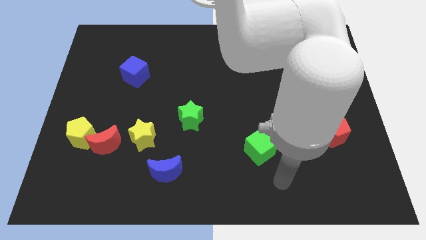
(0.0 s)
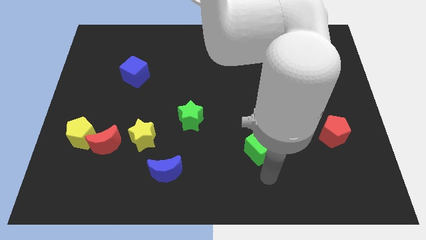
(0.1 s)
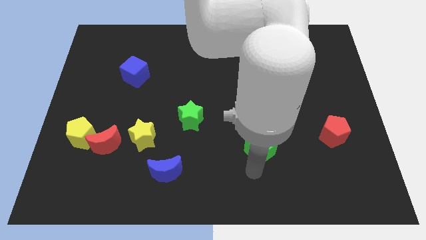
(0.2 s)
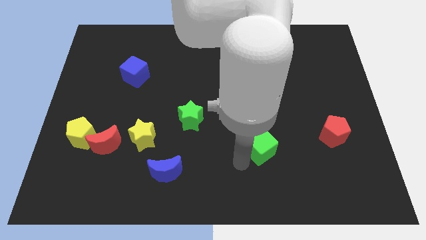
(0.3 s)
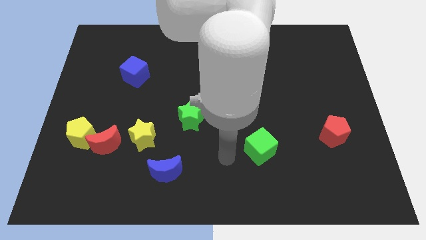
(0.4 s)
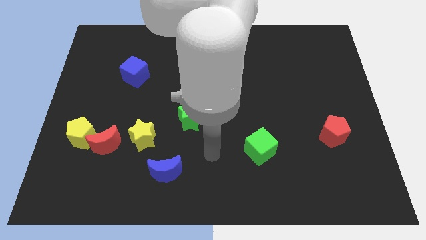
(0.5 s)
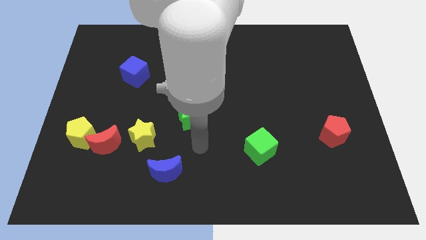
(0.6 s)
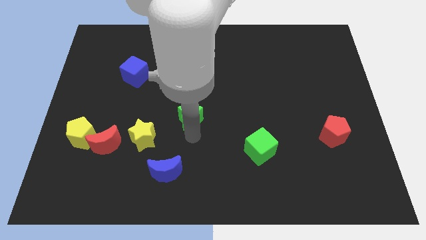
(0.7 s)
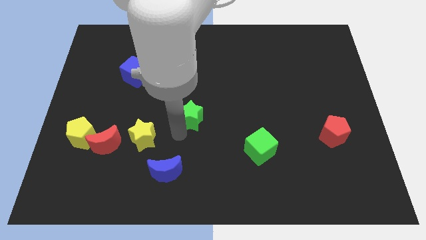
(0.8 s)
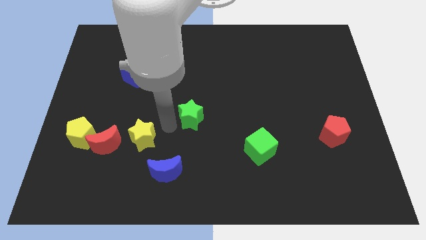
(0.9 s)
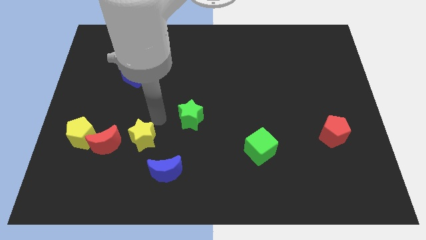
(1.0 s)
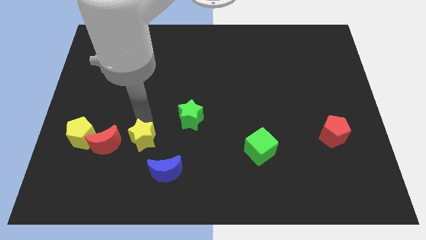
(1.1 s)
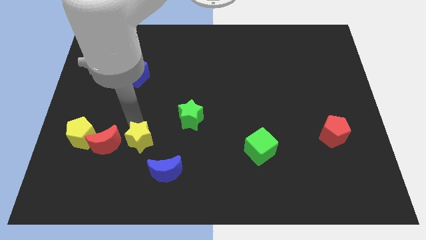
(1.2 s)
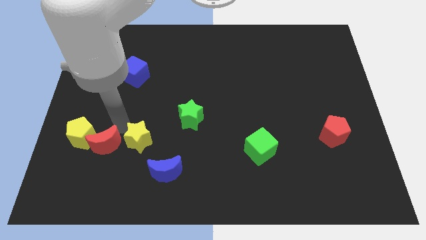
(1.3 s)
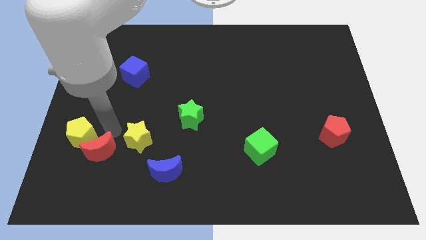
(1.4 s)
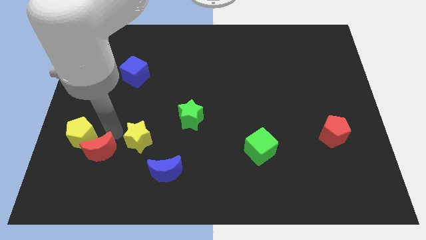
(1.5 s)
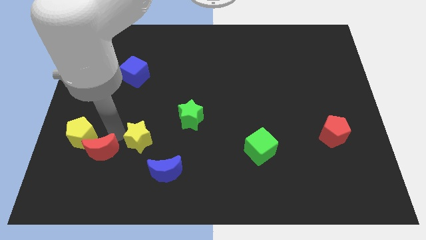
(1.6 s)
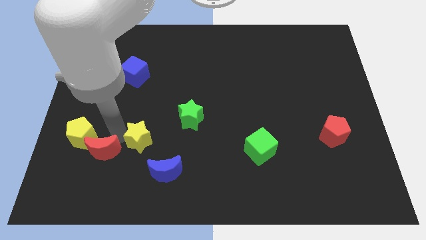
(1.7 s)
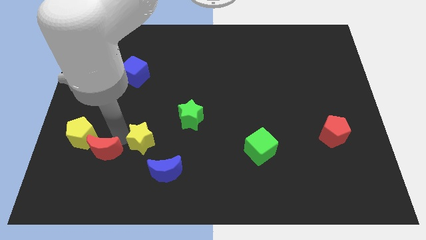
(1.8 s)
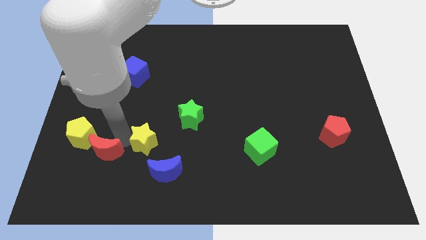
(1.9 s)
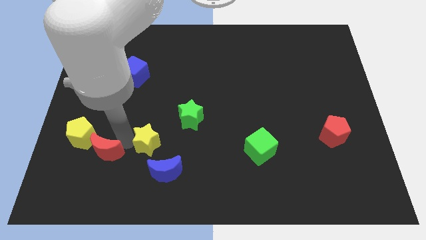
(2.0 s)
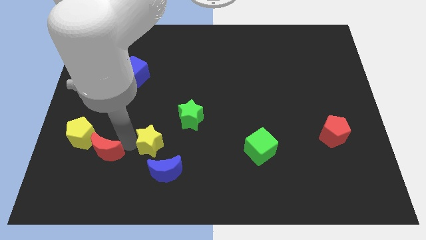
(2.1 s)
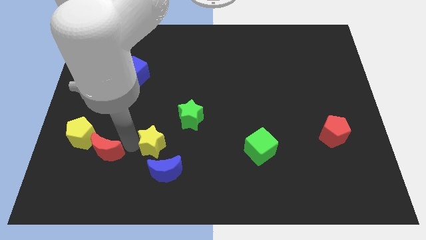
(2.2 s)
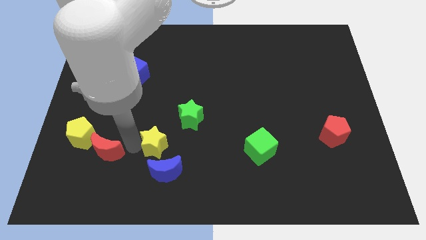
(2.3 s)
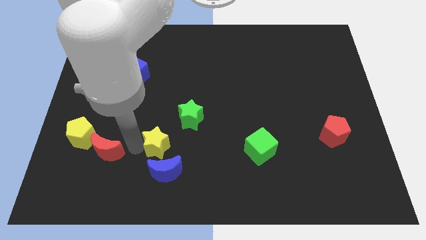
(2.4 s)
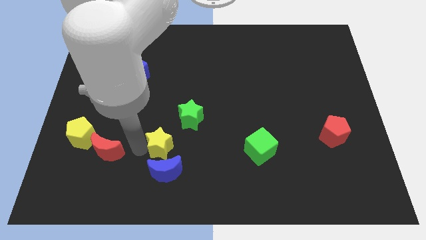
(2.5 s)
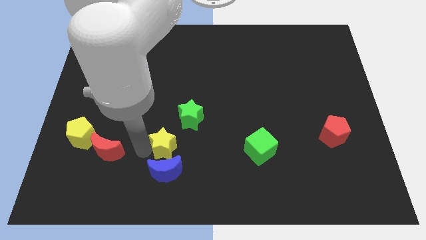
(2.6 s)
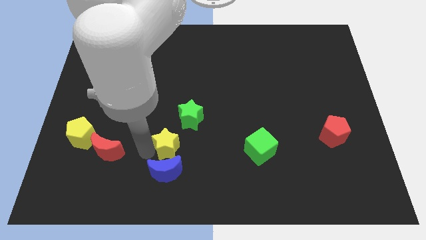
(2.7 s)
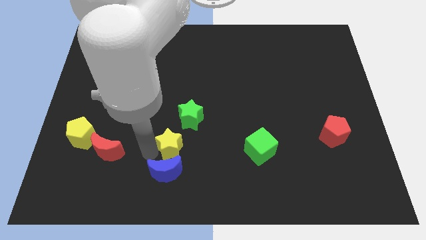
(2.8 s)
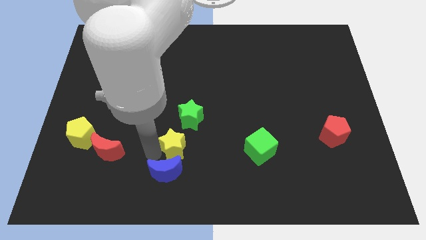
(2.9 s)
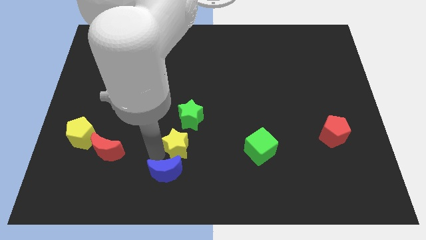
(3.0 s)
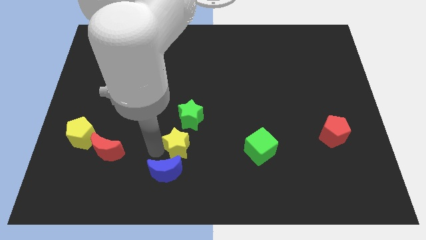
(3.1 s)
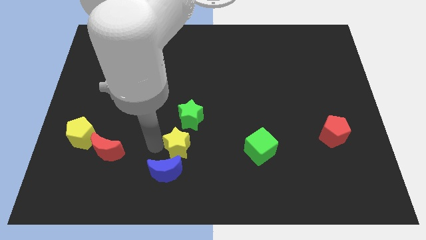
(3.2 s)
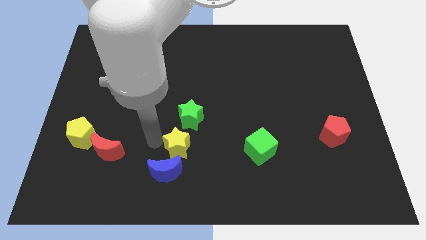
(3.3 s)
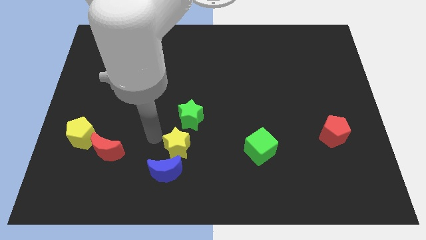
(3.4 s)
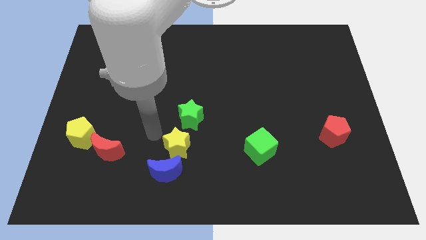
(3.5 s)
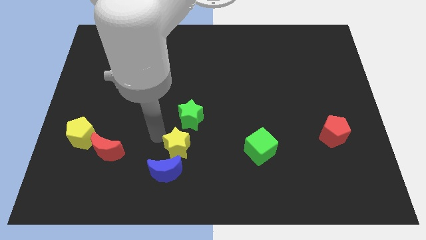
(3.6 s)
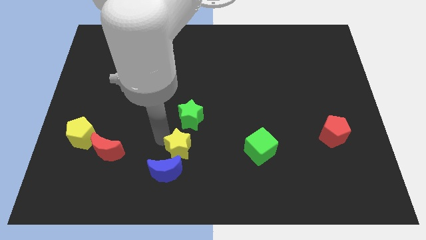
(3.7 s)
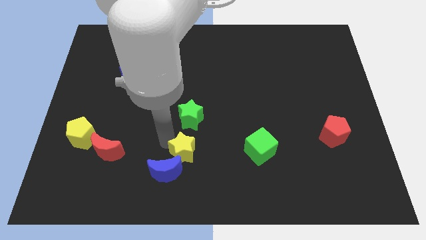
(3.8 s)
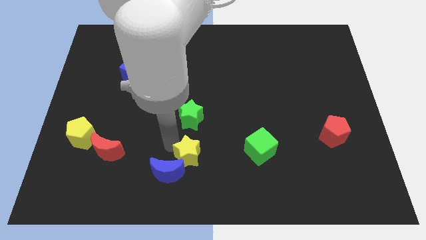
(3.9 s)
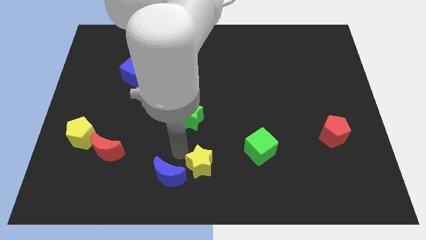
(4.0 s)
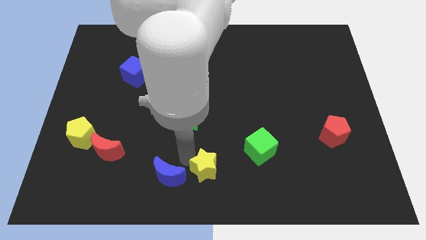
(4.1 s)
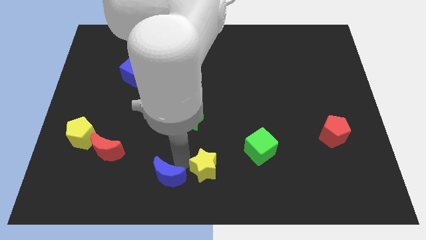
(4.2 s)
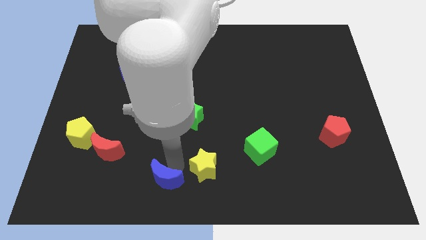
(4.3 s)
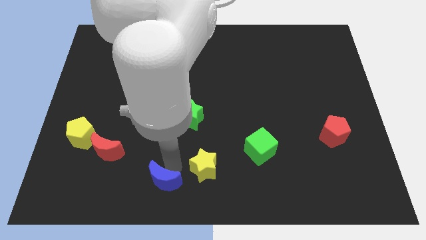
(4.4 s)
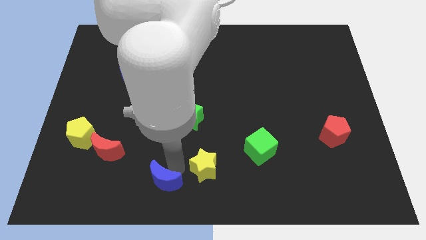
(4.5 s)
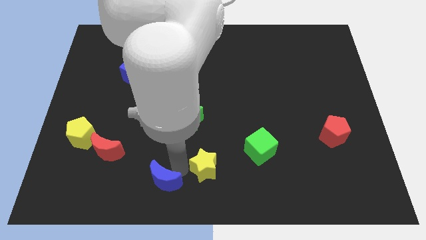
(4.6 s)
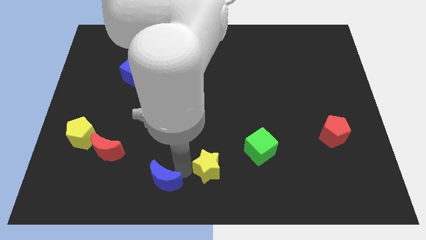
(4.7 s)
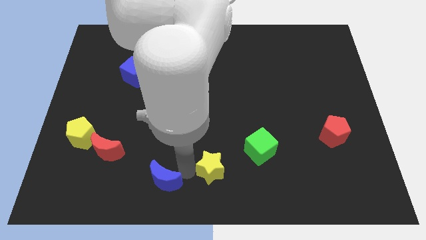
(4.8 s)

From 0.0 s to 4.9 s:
push the yellow star diagonally down and to the left of the green cube

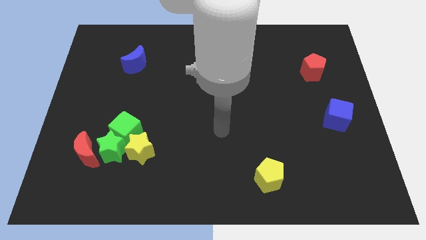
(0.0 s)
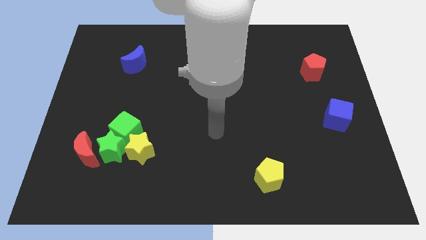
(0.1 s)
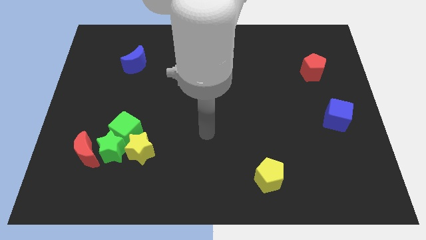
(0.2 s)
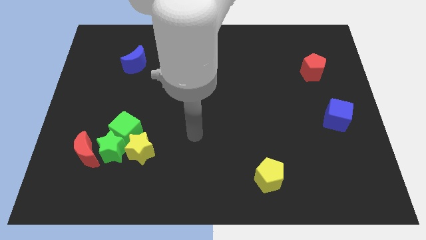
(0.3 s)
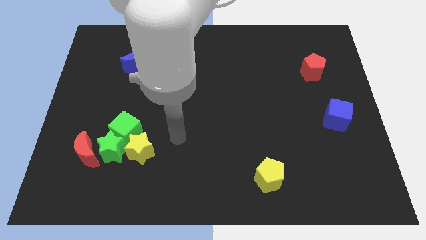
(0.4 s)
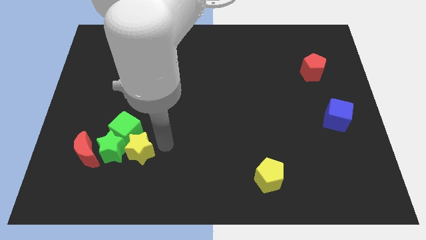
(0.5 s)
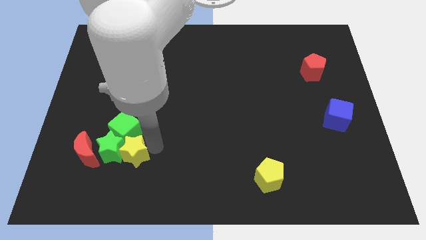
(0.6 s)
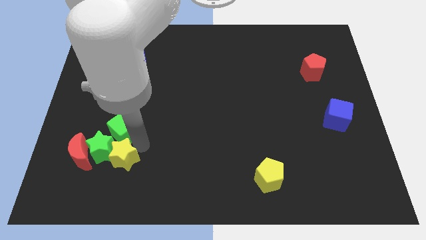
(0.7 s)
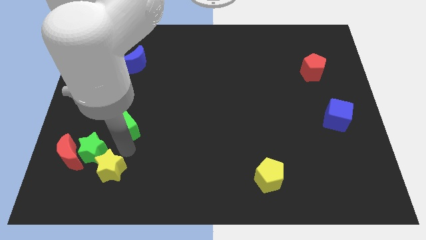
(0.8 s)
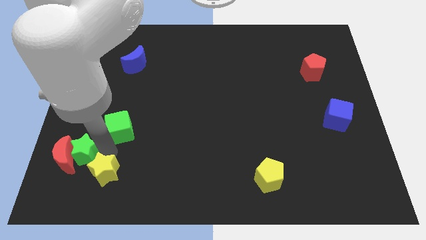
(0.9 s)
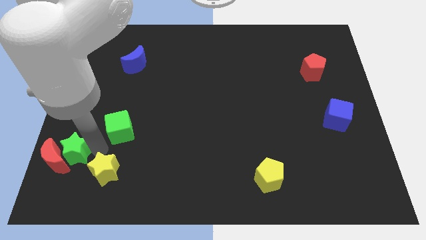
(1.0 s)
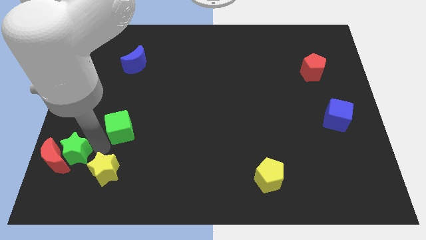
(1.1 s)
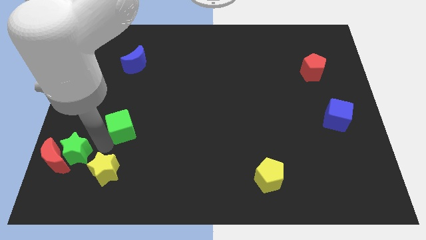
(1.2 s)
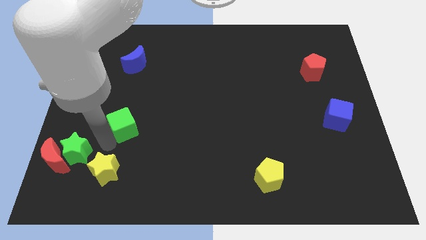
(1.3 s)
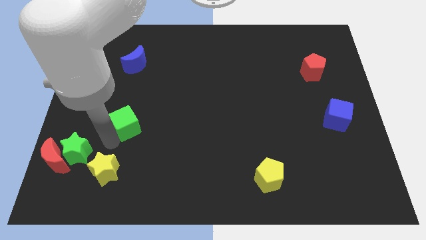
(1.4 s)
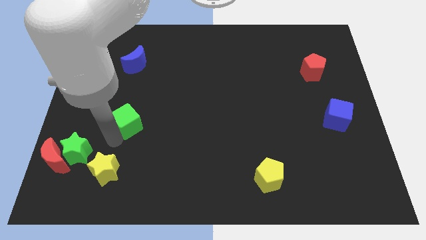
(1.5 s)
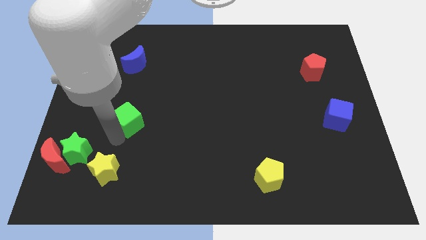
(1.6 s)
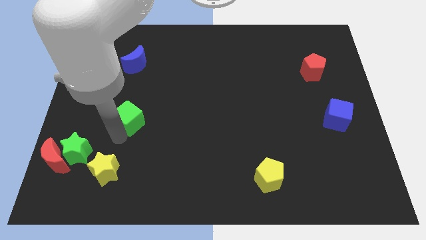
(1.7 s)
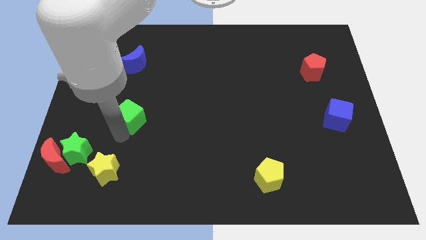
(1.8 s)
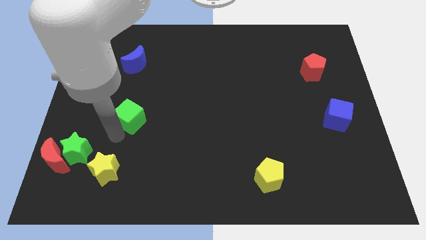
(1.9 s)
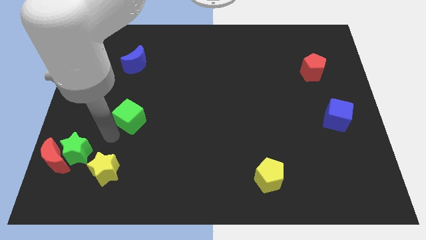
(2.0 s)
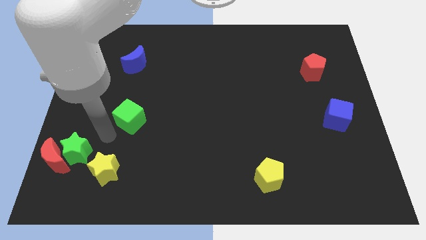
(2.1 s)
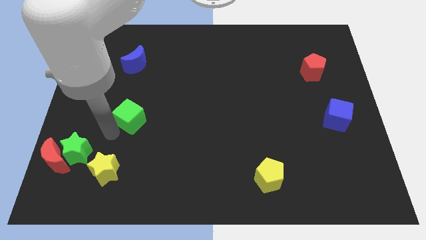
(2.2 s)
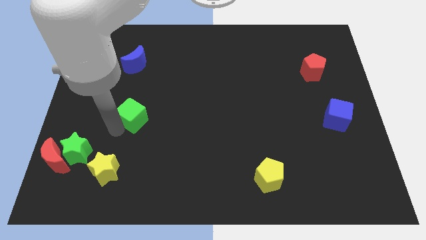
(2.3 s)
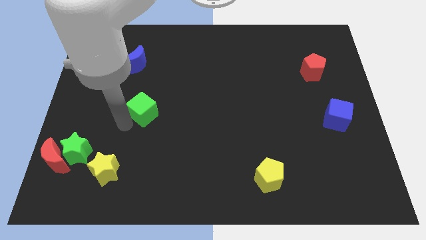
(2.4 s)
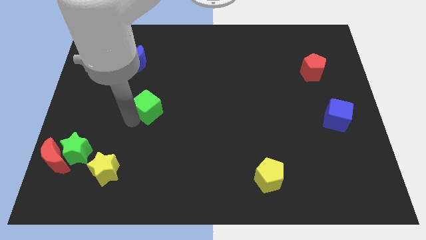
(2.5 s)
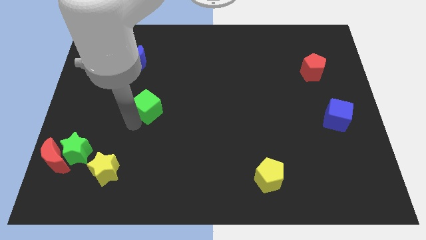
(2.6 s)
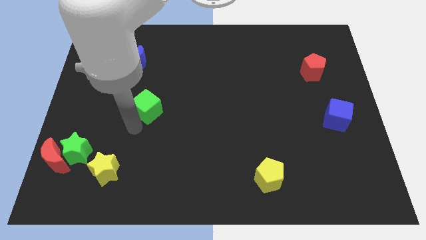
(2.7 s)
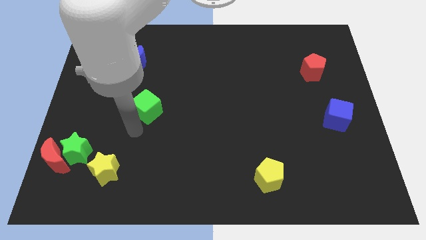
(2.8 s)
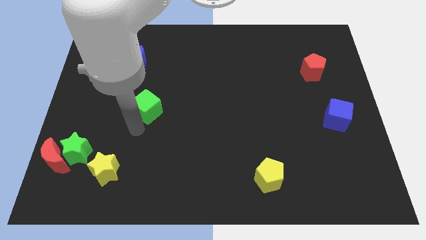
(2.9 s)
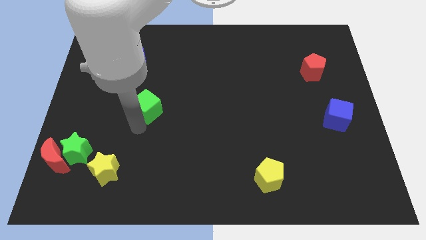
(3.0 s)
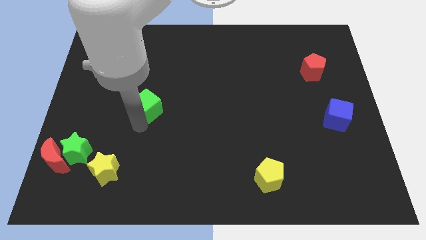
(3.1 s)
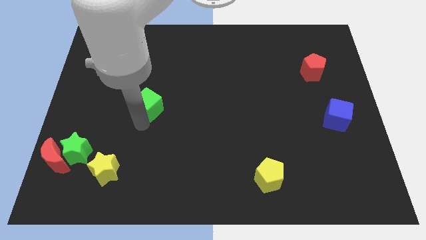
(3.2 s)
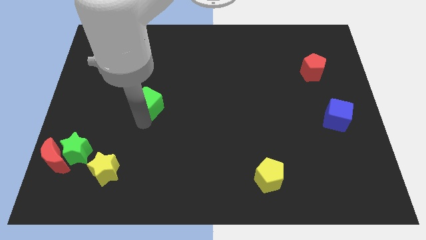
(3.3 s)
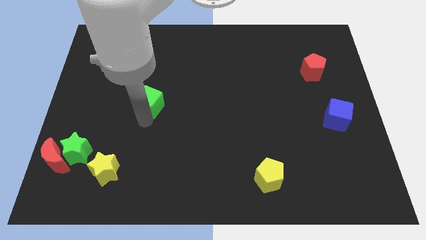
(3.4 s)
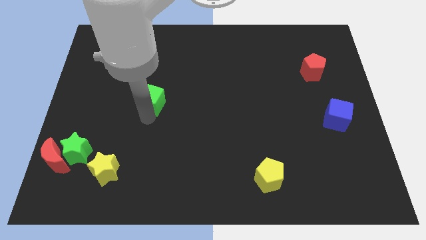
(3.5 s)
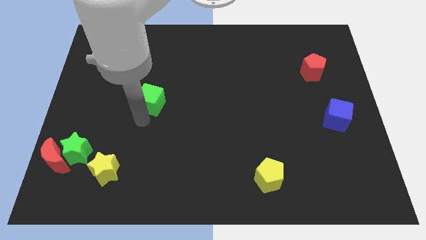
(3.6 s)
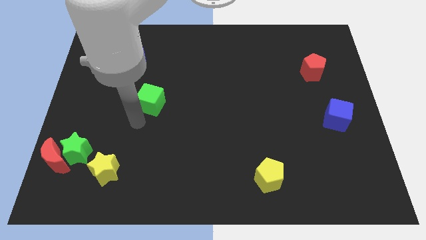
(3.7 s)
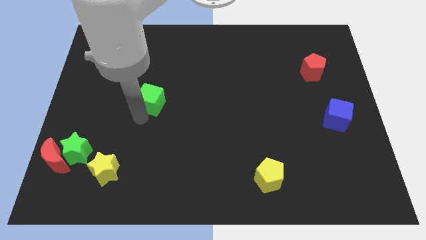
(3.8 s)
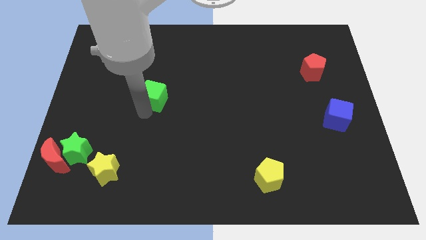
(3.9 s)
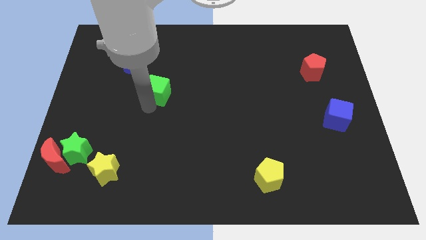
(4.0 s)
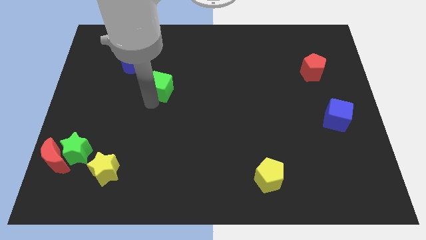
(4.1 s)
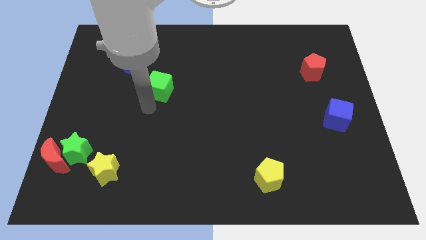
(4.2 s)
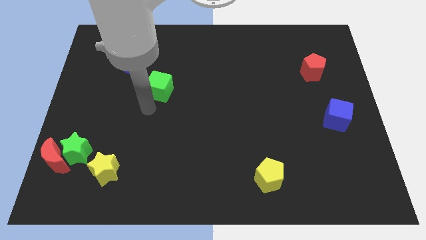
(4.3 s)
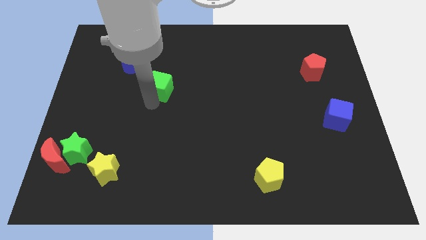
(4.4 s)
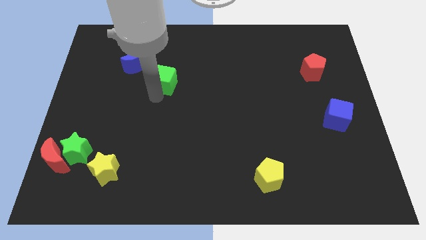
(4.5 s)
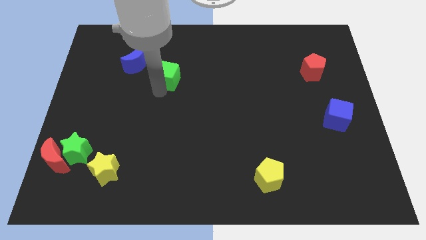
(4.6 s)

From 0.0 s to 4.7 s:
slide the green cube right of the blue moon
